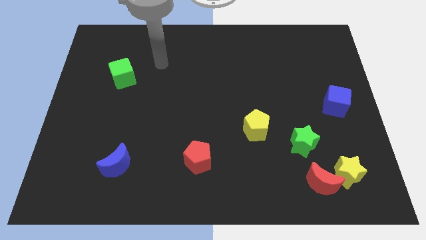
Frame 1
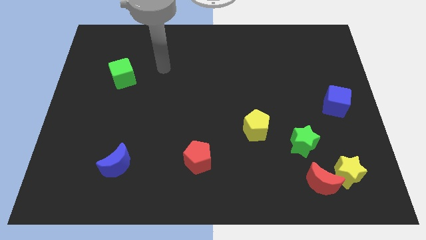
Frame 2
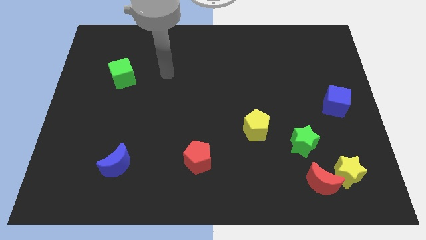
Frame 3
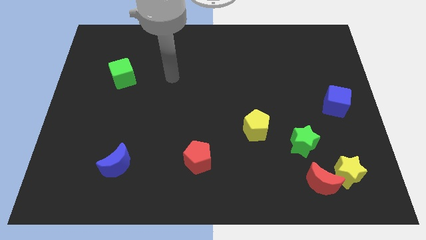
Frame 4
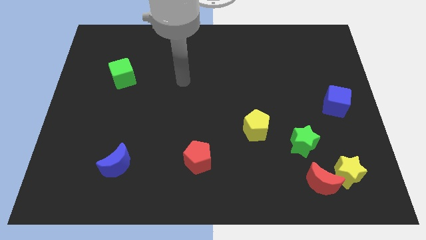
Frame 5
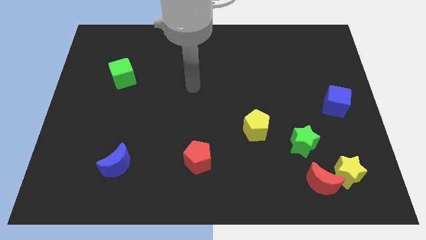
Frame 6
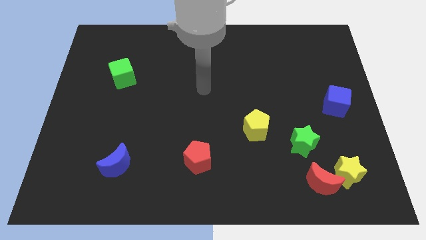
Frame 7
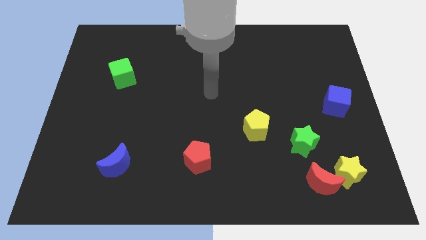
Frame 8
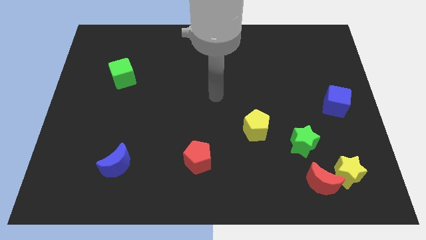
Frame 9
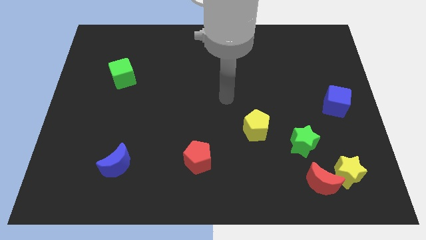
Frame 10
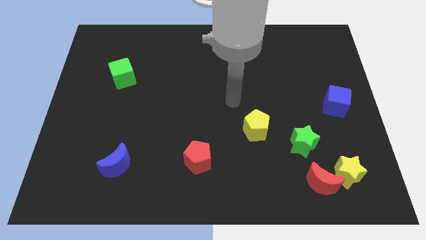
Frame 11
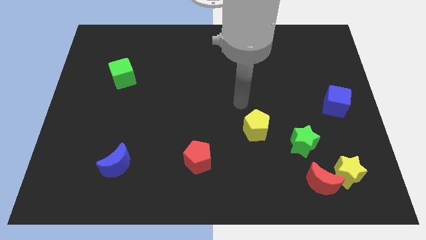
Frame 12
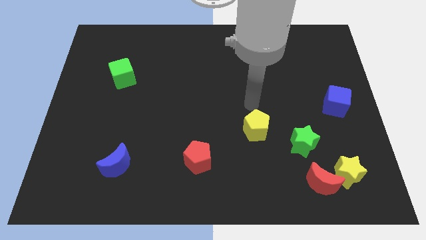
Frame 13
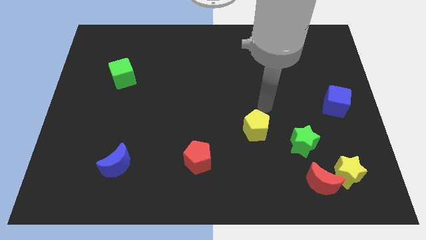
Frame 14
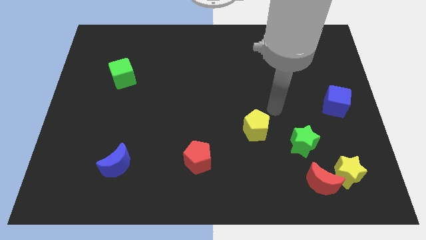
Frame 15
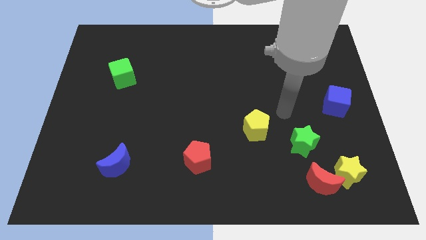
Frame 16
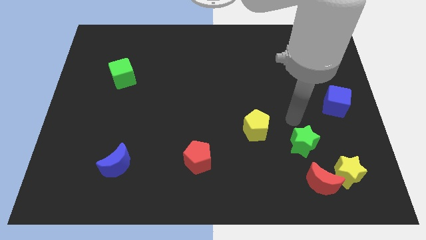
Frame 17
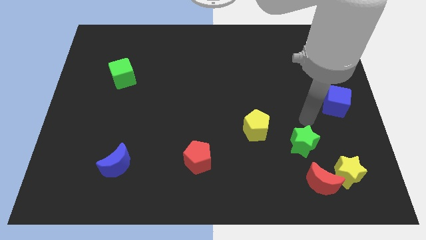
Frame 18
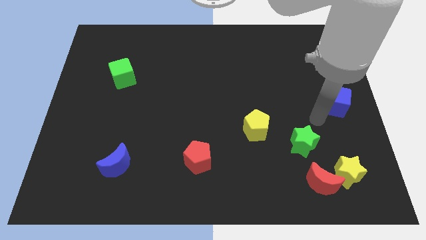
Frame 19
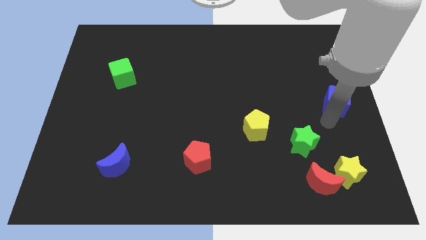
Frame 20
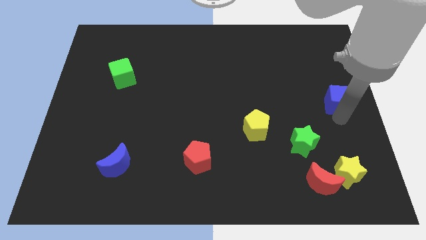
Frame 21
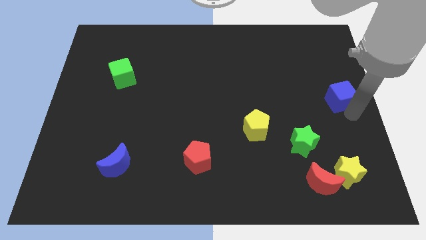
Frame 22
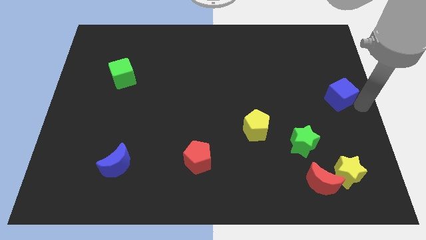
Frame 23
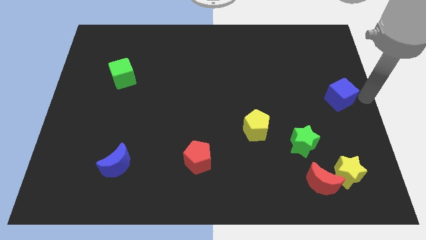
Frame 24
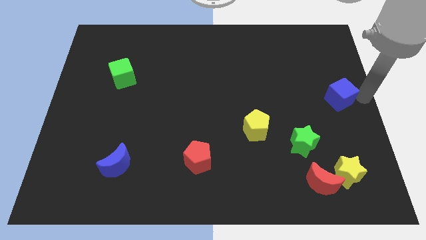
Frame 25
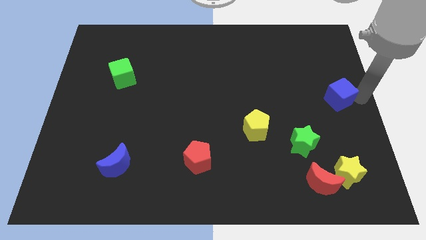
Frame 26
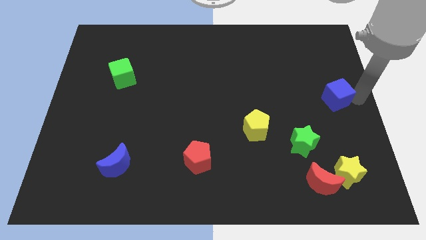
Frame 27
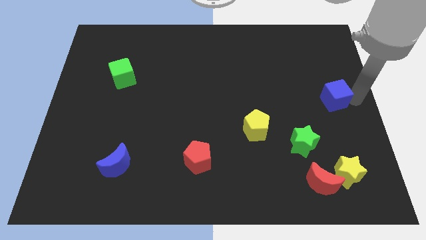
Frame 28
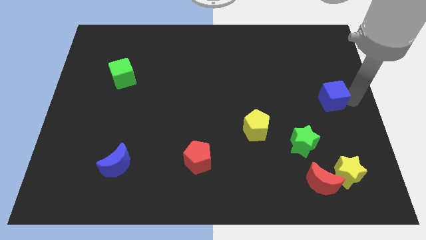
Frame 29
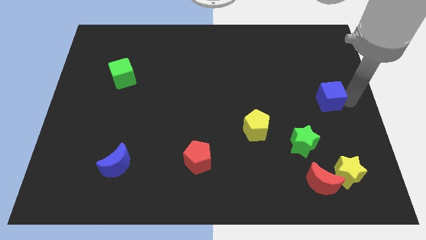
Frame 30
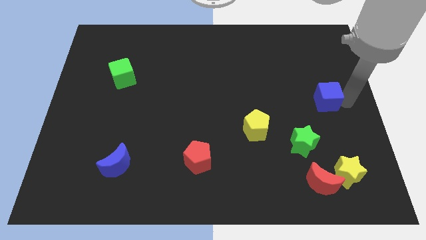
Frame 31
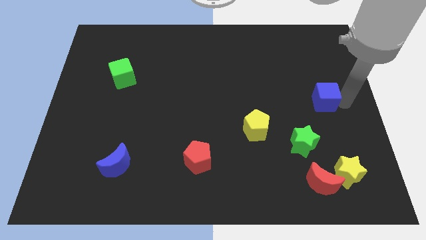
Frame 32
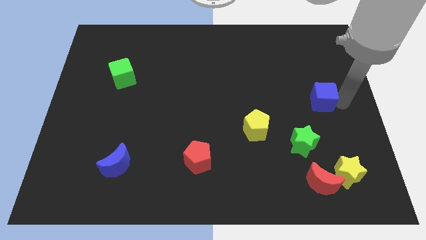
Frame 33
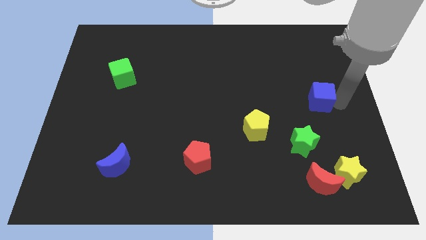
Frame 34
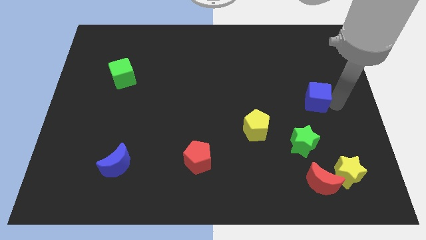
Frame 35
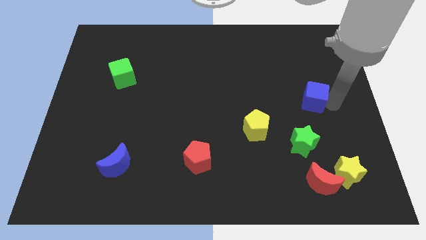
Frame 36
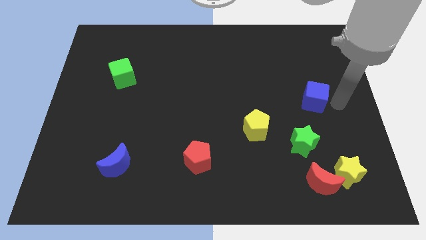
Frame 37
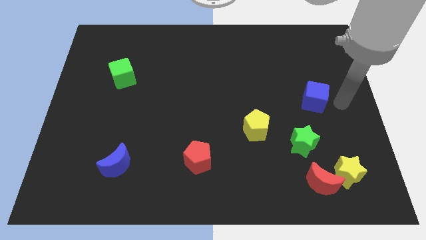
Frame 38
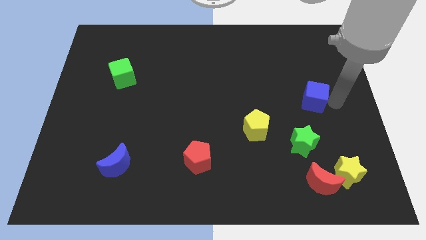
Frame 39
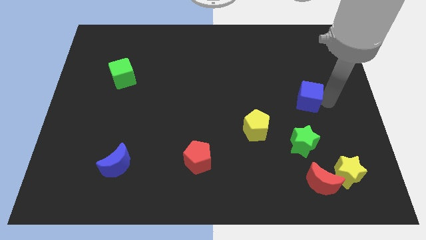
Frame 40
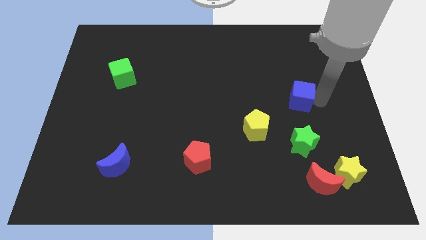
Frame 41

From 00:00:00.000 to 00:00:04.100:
slide the blue cube a little left

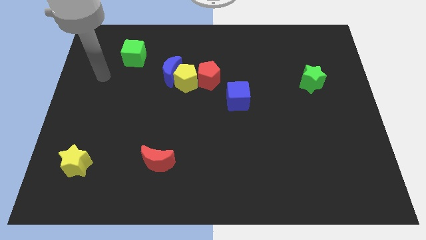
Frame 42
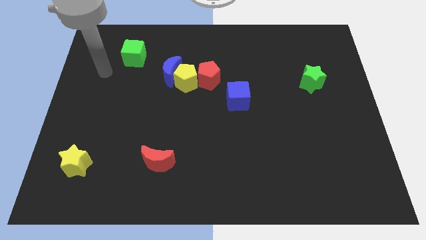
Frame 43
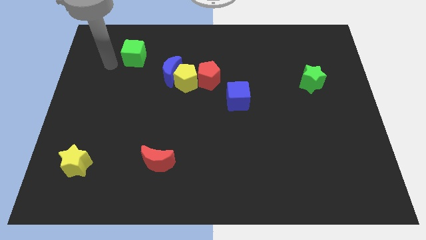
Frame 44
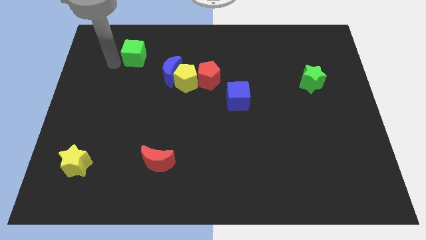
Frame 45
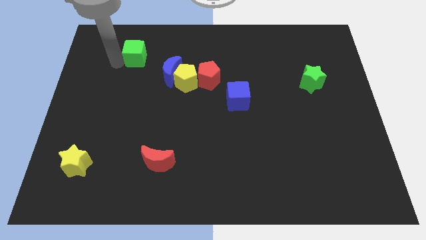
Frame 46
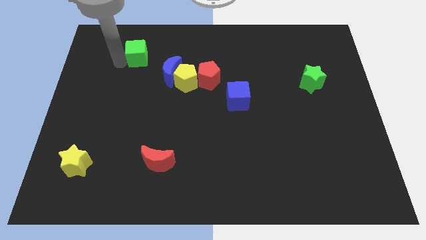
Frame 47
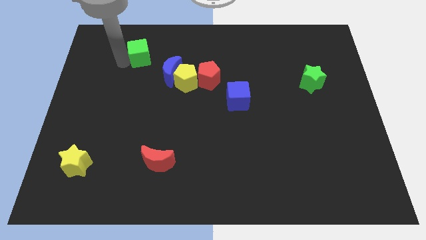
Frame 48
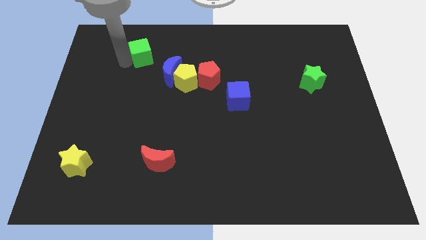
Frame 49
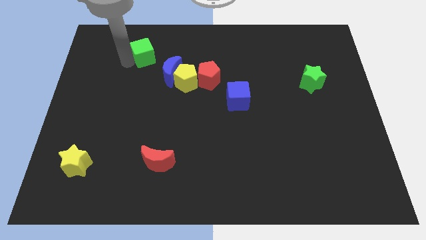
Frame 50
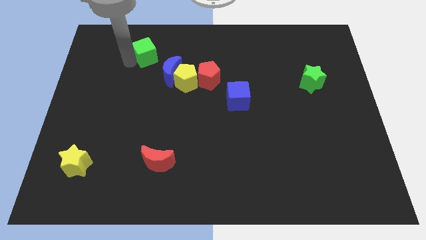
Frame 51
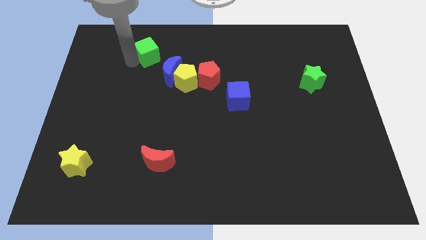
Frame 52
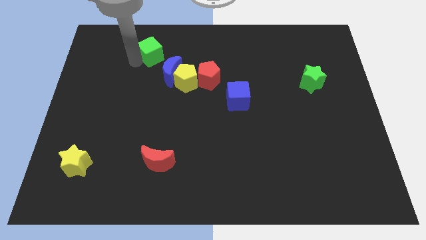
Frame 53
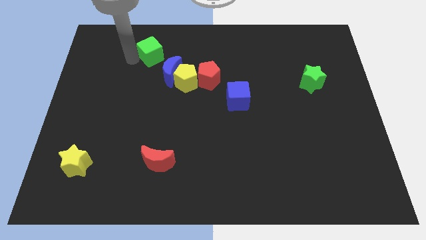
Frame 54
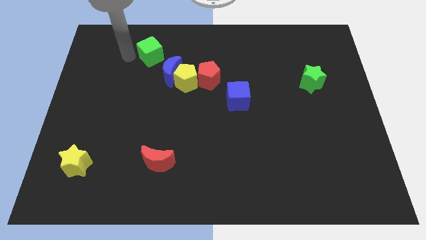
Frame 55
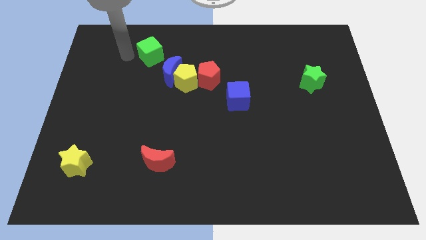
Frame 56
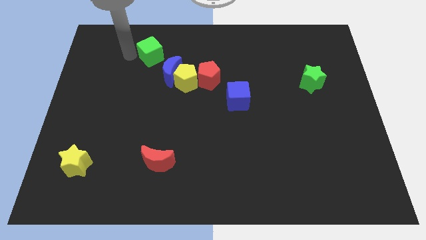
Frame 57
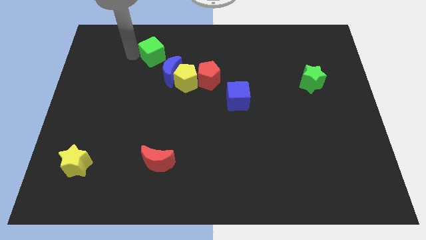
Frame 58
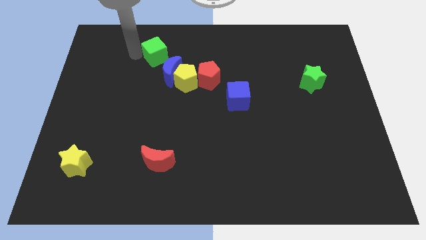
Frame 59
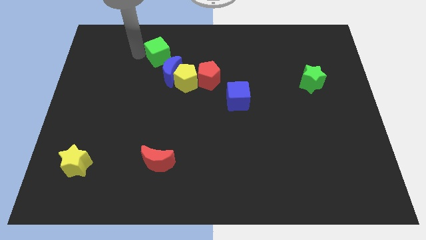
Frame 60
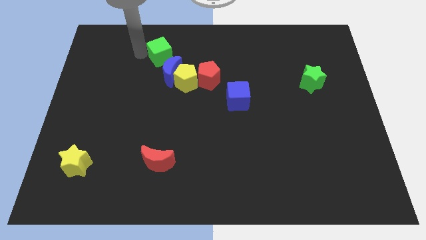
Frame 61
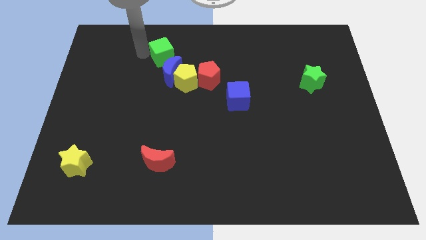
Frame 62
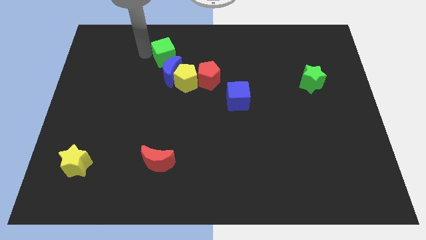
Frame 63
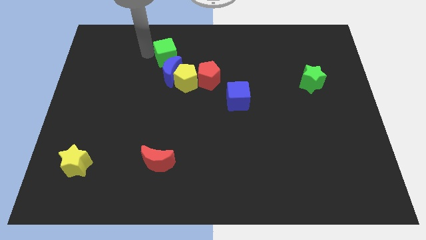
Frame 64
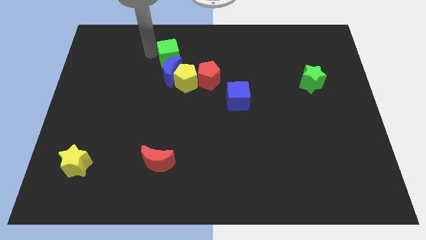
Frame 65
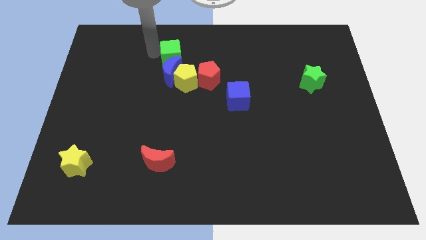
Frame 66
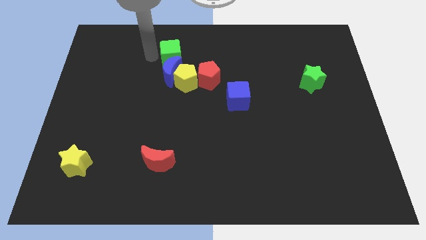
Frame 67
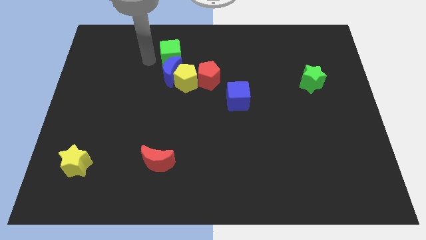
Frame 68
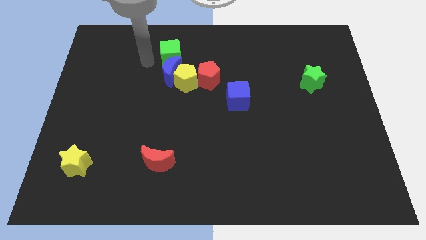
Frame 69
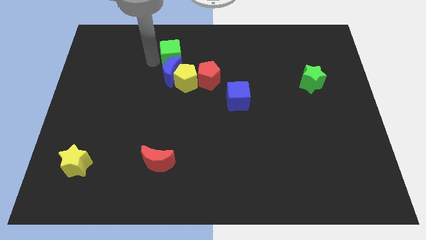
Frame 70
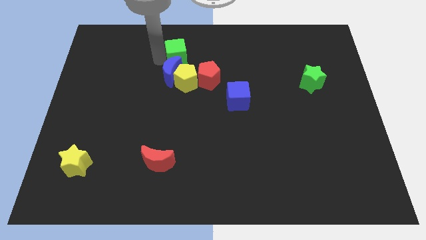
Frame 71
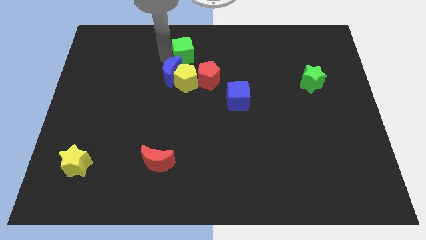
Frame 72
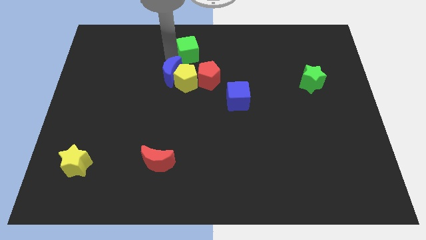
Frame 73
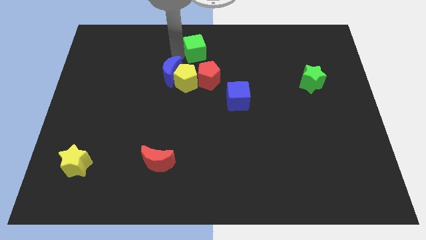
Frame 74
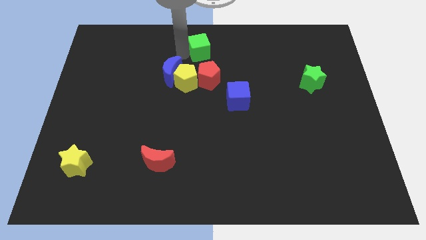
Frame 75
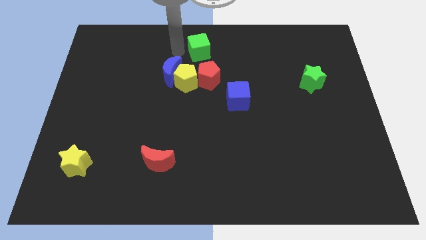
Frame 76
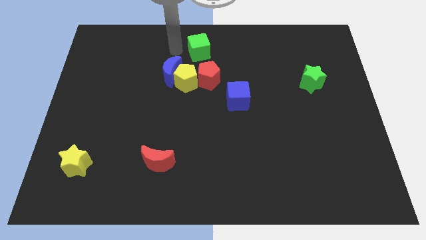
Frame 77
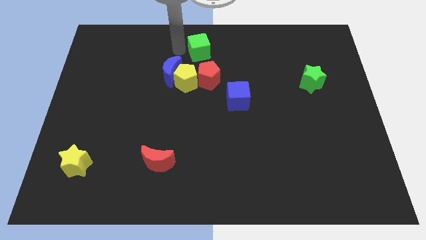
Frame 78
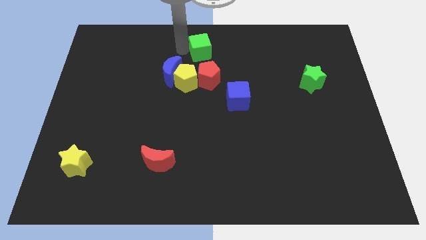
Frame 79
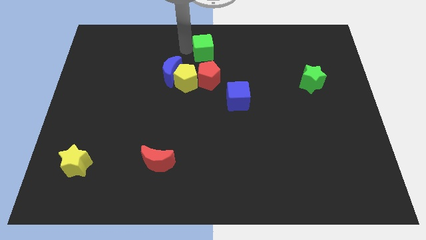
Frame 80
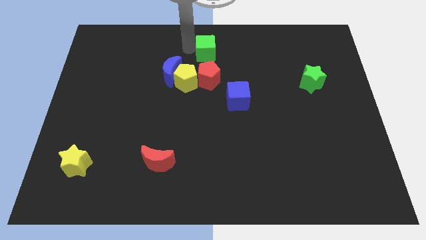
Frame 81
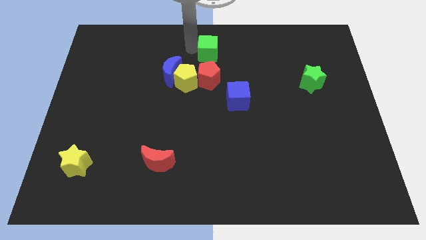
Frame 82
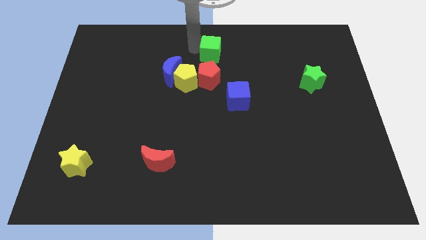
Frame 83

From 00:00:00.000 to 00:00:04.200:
slide the green cube right

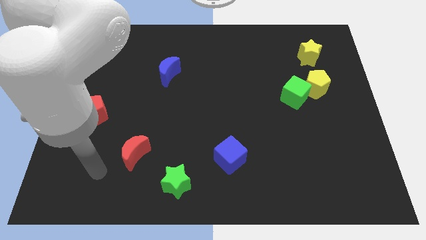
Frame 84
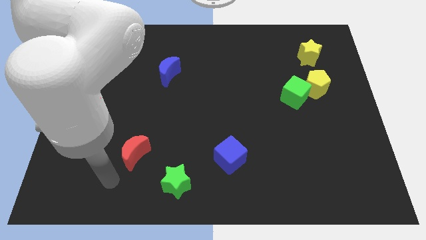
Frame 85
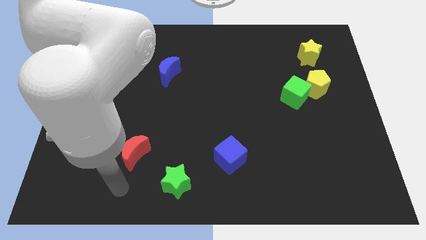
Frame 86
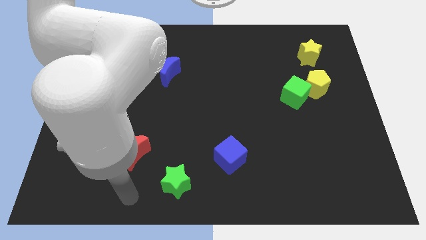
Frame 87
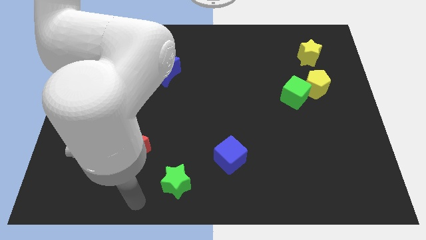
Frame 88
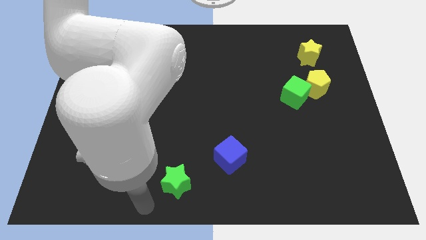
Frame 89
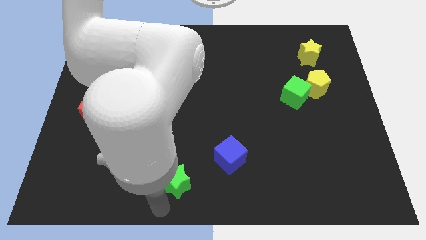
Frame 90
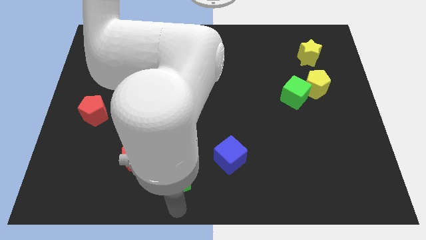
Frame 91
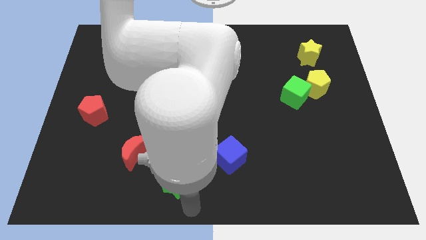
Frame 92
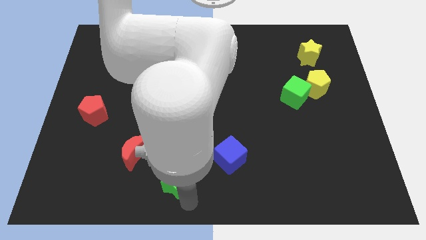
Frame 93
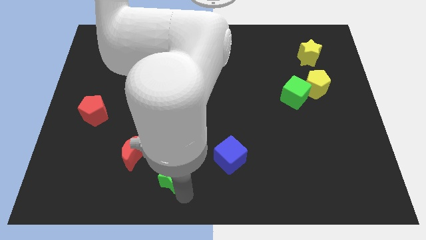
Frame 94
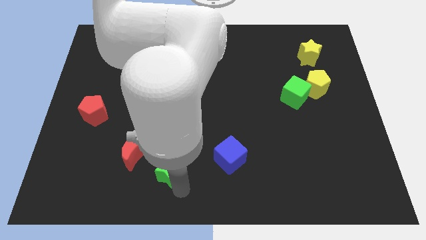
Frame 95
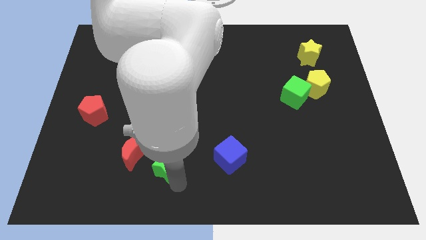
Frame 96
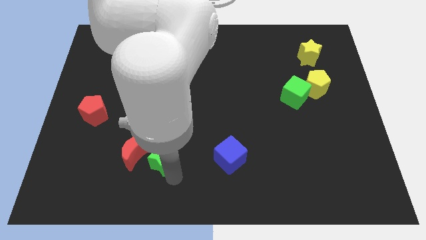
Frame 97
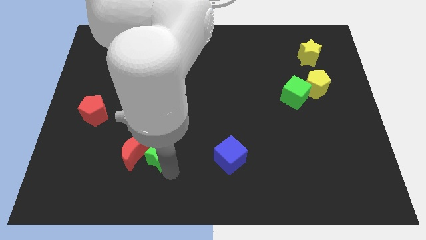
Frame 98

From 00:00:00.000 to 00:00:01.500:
move the green star a bit up and left
